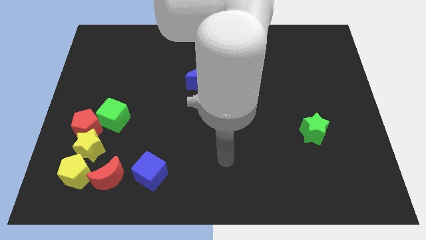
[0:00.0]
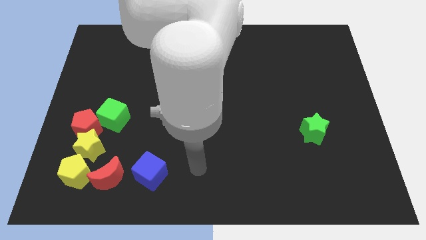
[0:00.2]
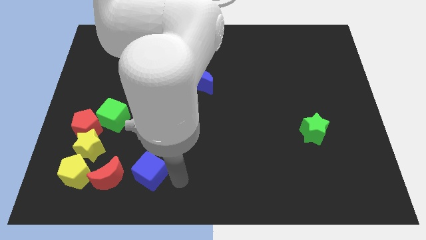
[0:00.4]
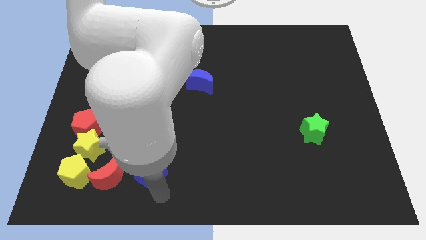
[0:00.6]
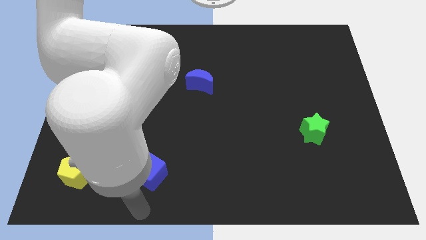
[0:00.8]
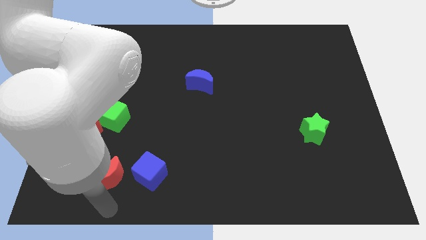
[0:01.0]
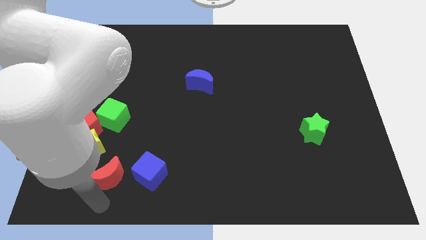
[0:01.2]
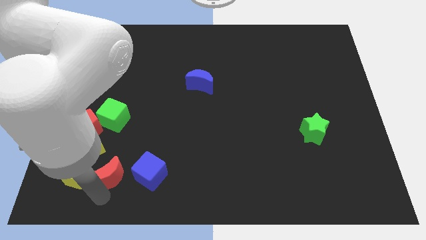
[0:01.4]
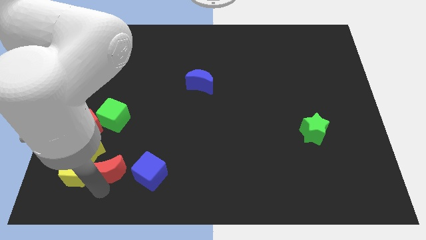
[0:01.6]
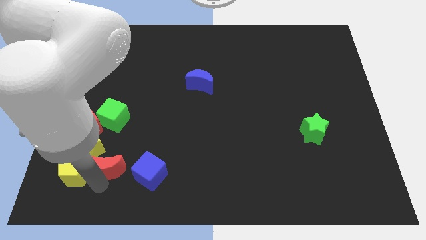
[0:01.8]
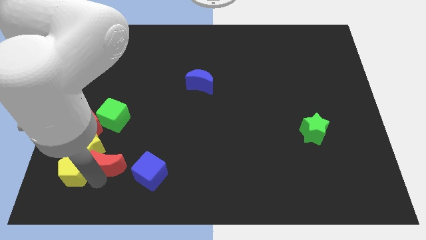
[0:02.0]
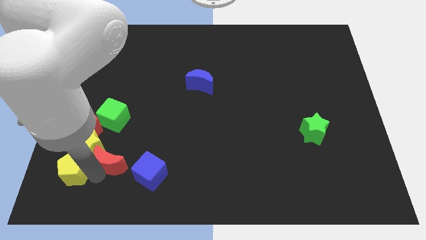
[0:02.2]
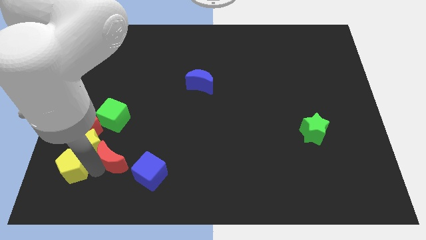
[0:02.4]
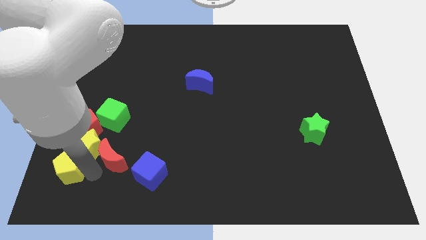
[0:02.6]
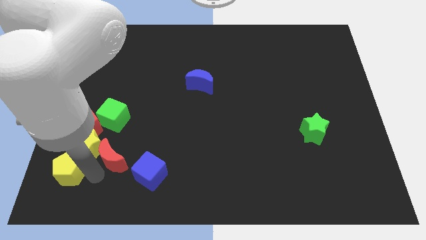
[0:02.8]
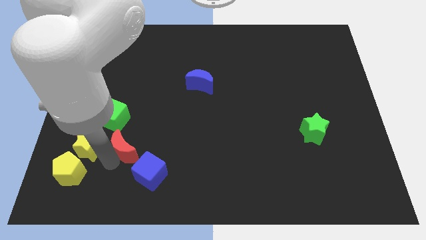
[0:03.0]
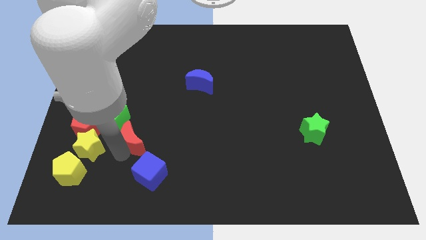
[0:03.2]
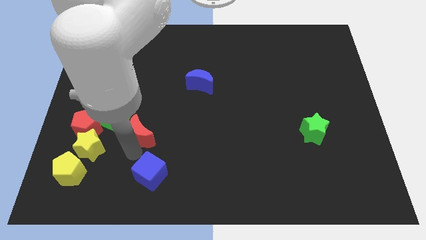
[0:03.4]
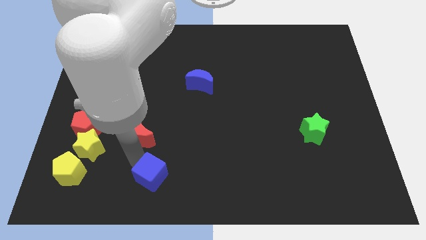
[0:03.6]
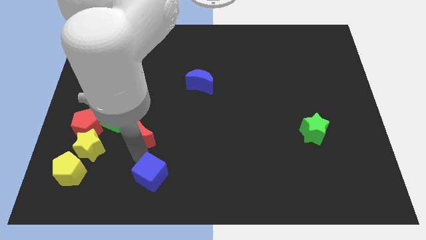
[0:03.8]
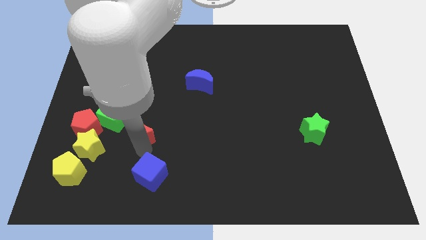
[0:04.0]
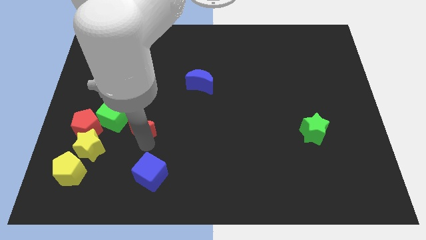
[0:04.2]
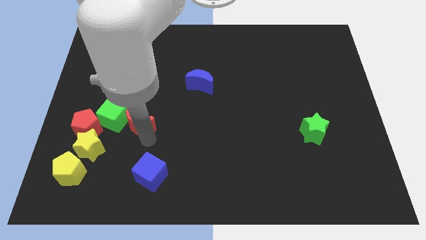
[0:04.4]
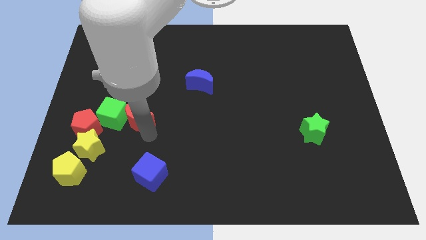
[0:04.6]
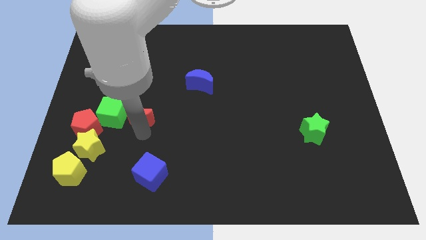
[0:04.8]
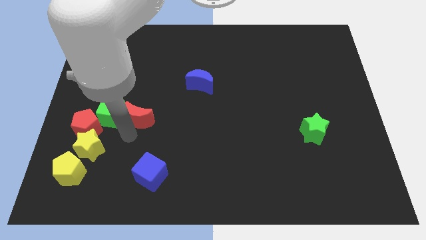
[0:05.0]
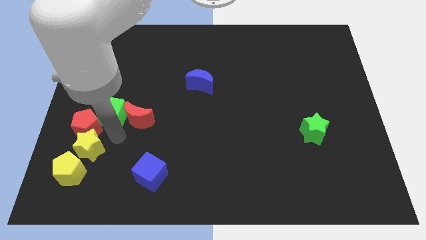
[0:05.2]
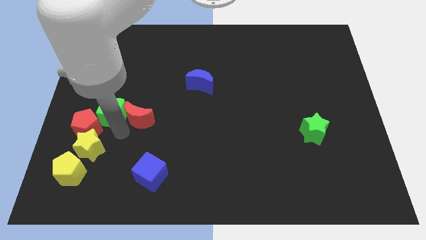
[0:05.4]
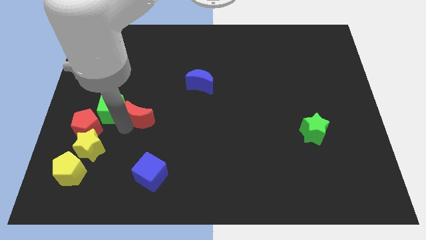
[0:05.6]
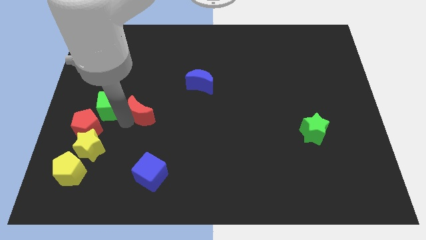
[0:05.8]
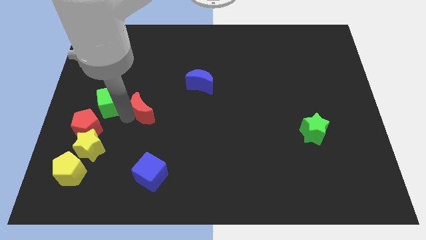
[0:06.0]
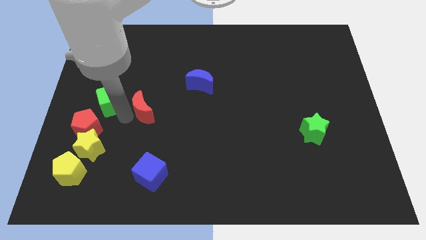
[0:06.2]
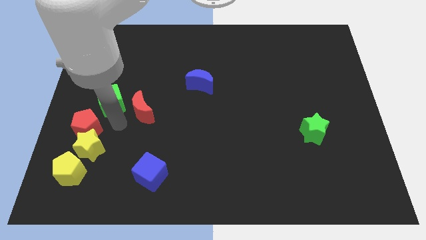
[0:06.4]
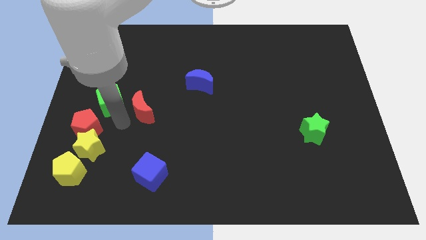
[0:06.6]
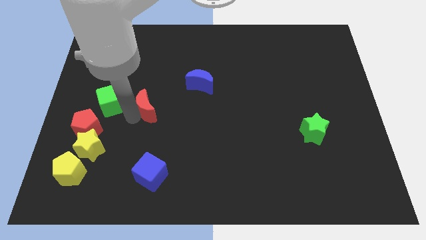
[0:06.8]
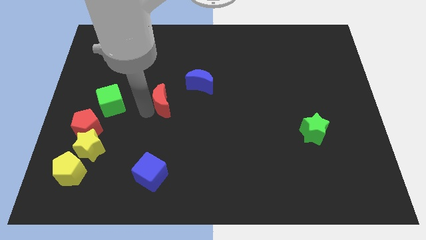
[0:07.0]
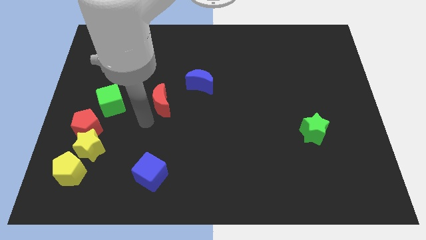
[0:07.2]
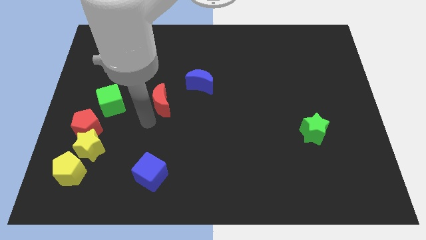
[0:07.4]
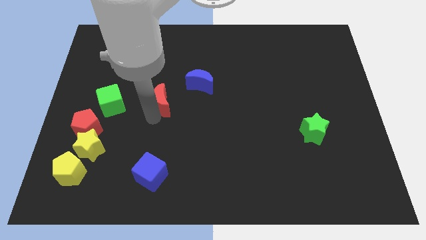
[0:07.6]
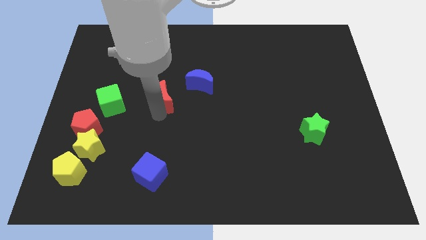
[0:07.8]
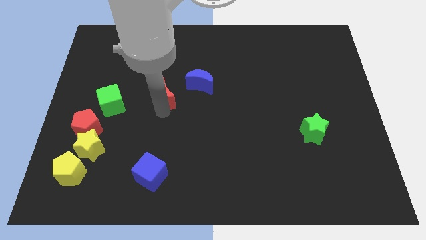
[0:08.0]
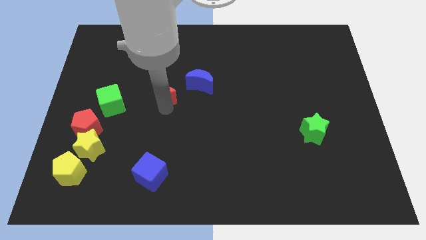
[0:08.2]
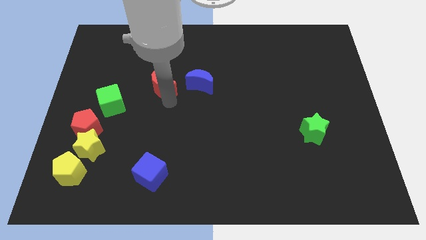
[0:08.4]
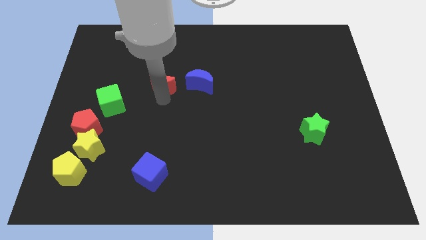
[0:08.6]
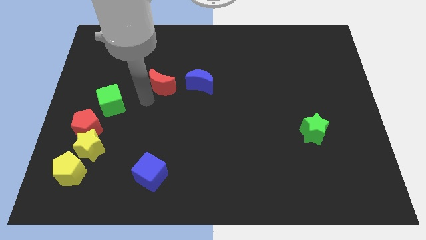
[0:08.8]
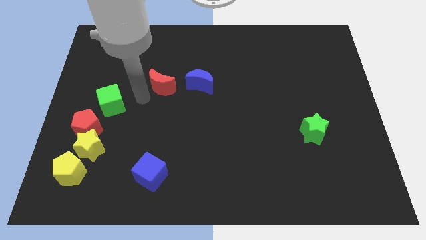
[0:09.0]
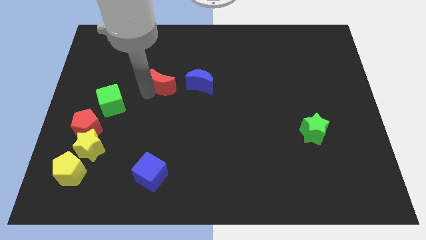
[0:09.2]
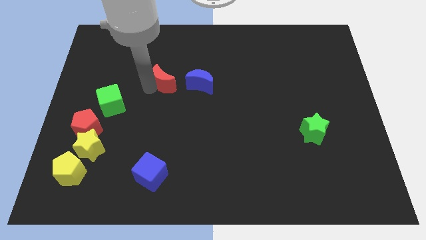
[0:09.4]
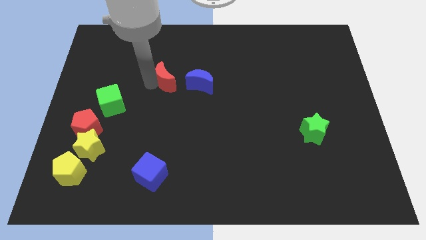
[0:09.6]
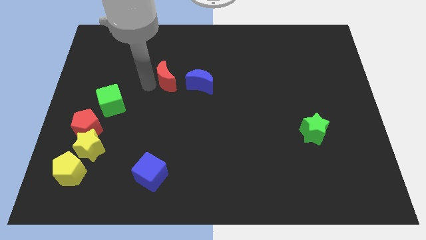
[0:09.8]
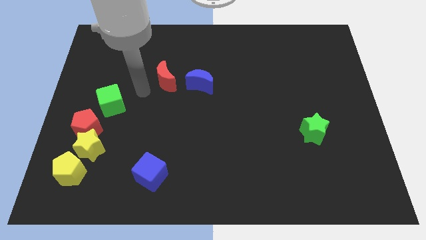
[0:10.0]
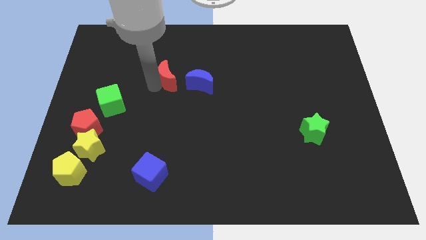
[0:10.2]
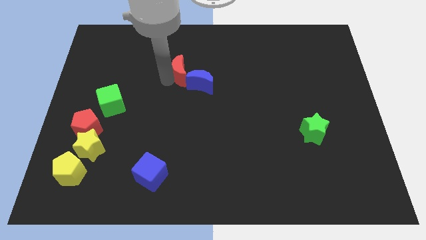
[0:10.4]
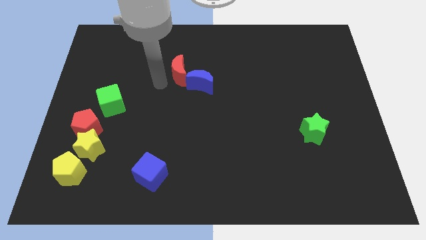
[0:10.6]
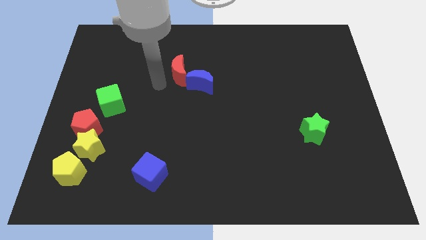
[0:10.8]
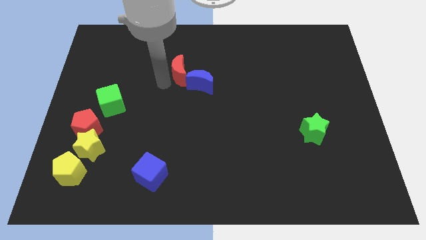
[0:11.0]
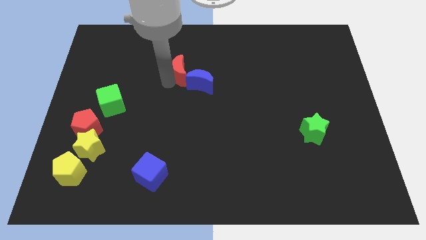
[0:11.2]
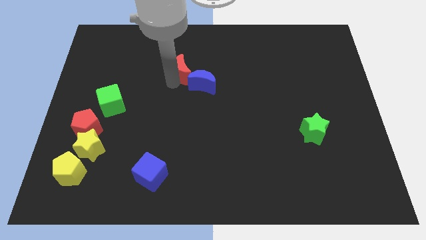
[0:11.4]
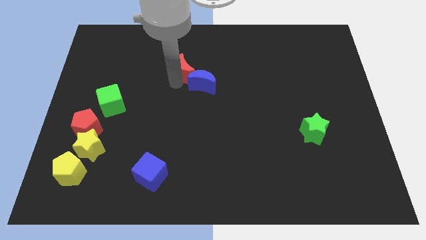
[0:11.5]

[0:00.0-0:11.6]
move the red moon to the top of the blue moon

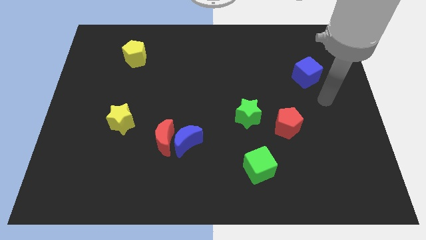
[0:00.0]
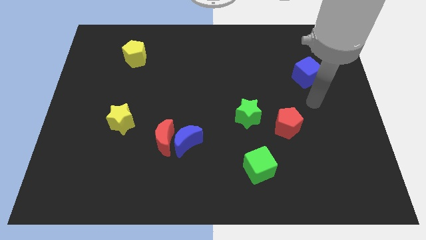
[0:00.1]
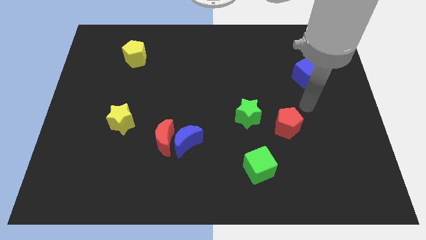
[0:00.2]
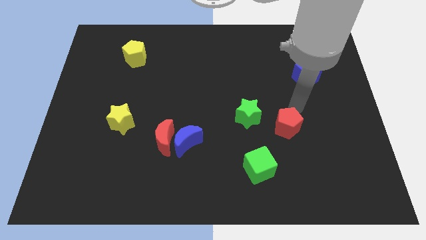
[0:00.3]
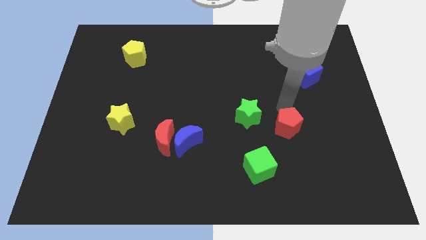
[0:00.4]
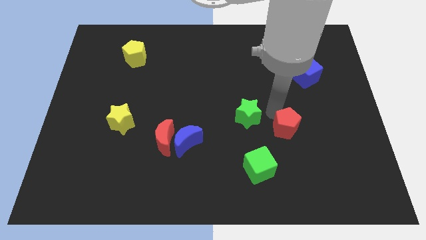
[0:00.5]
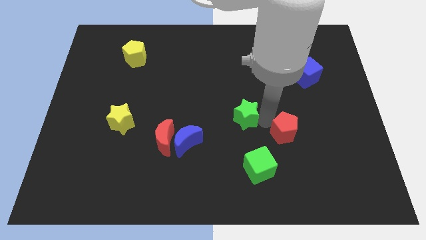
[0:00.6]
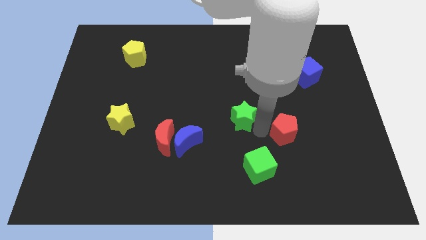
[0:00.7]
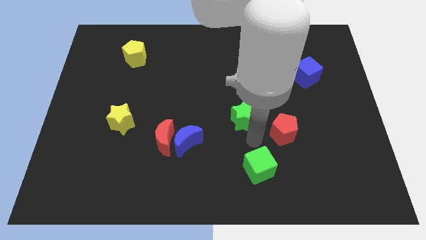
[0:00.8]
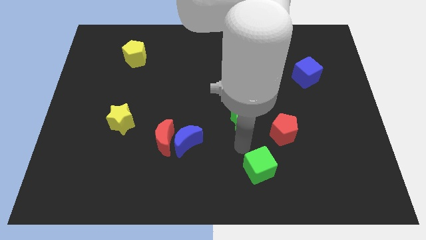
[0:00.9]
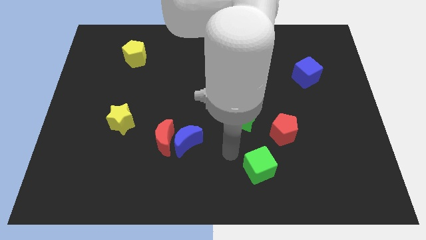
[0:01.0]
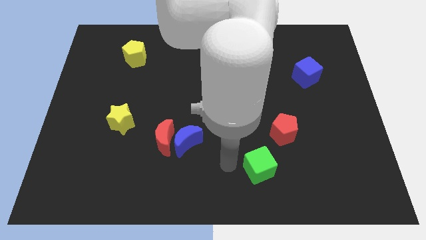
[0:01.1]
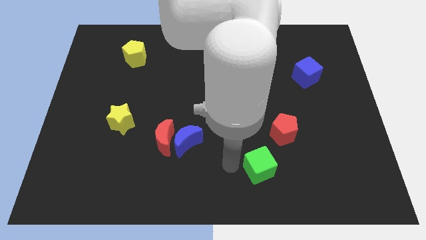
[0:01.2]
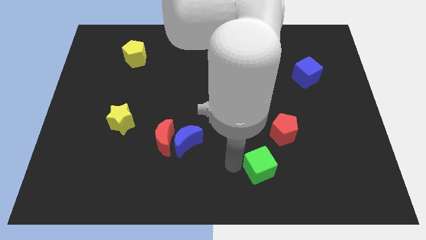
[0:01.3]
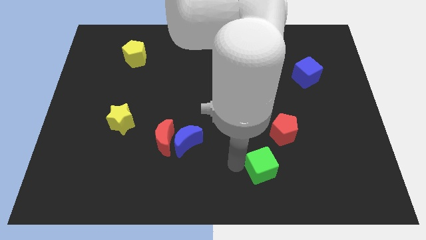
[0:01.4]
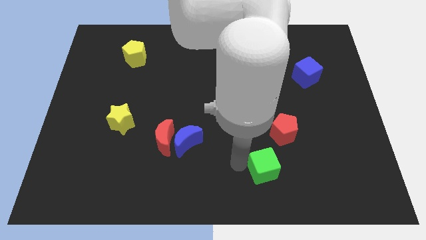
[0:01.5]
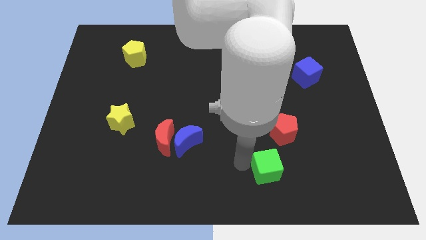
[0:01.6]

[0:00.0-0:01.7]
slide the green cube to the bottom side of the red pentagon

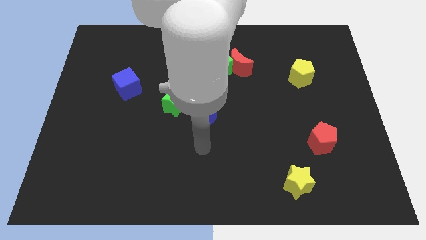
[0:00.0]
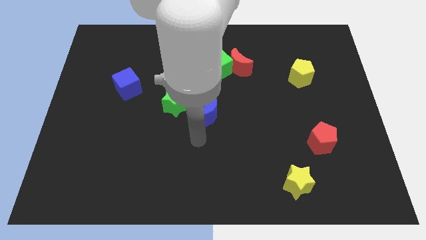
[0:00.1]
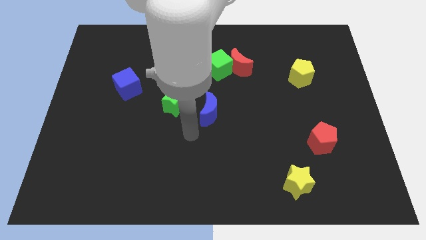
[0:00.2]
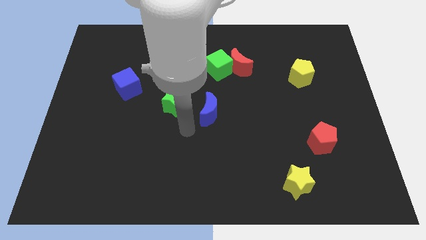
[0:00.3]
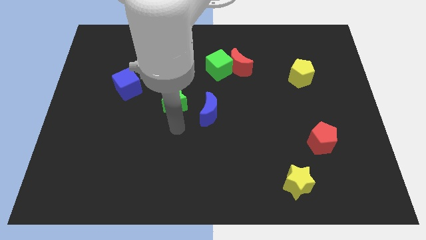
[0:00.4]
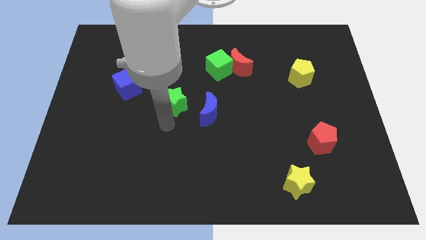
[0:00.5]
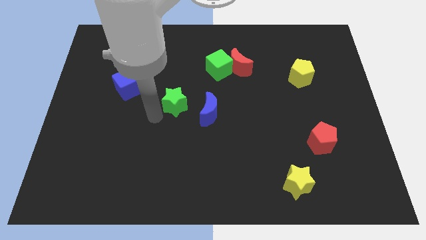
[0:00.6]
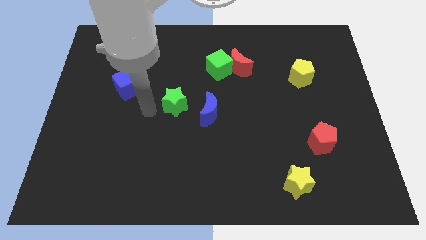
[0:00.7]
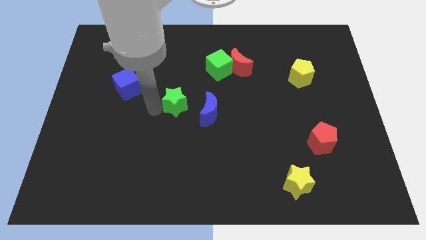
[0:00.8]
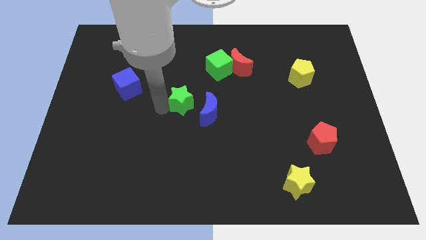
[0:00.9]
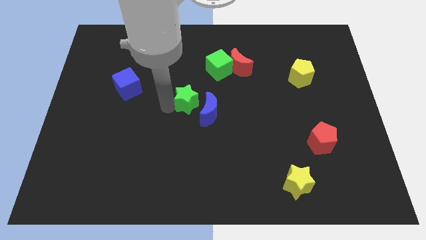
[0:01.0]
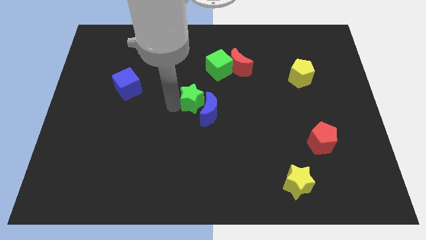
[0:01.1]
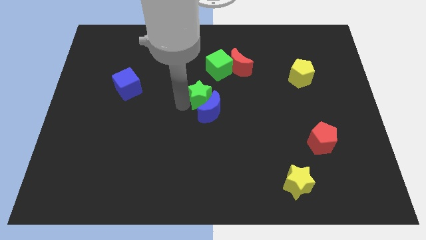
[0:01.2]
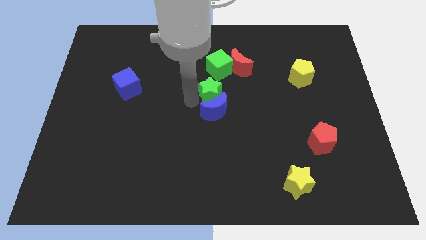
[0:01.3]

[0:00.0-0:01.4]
slide the green star to the top right of the blue moon
